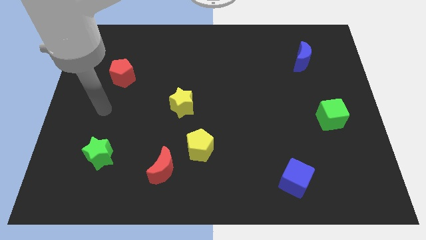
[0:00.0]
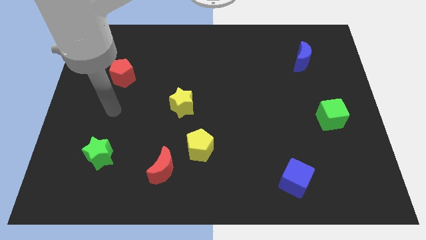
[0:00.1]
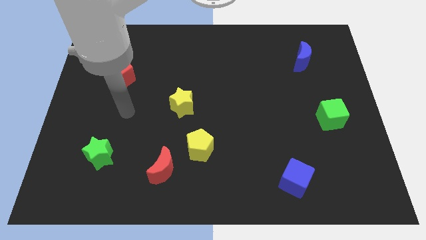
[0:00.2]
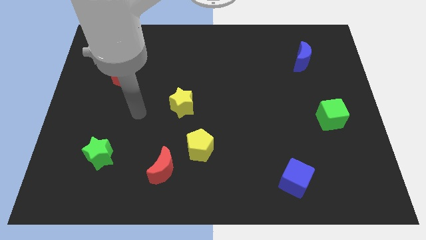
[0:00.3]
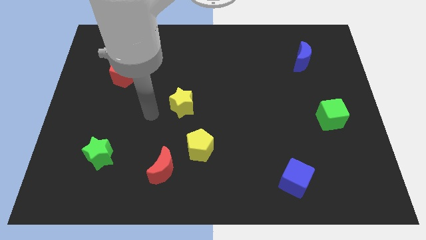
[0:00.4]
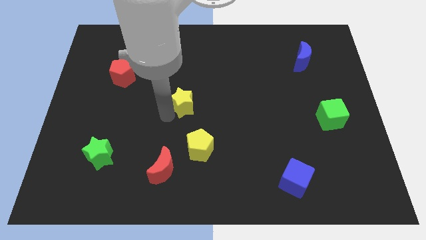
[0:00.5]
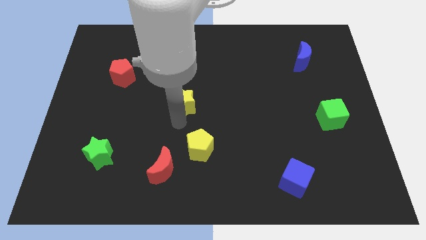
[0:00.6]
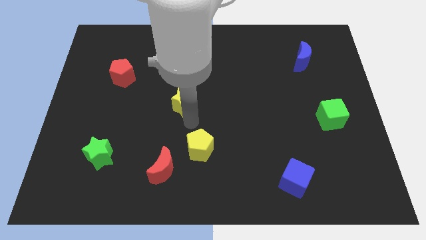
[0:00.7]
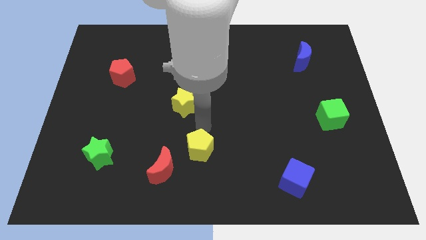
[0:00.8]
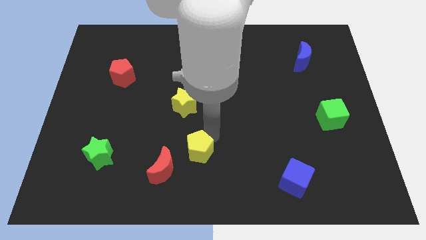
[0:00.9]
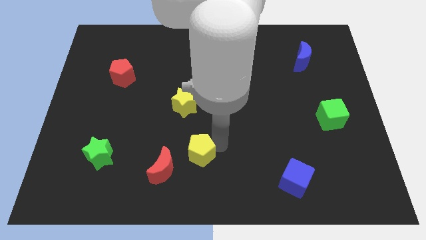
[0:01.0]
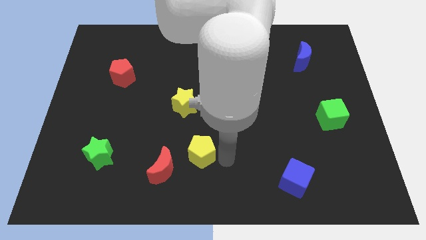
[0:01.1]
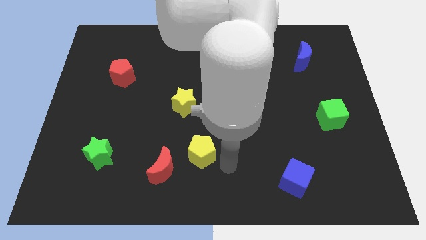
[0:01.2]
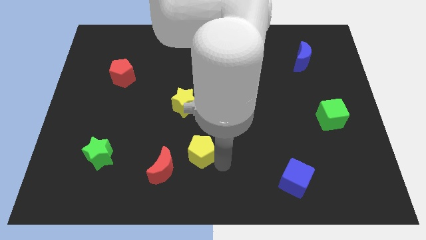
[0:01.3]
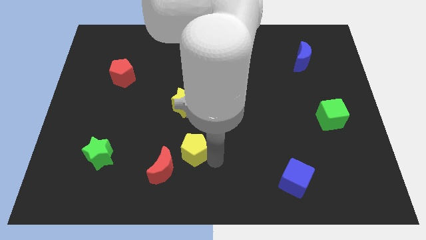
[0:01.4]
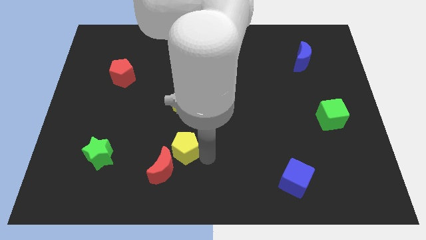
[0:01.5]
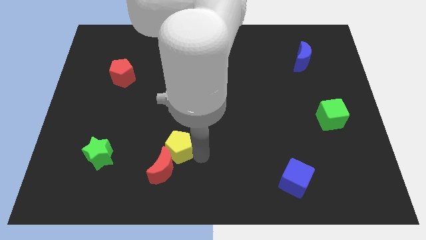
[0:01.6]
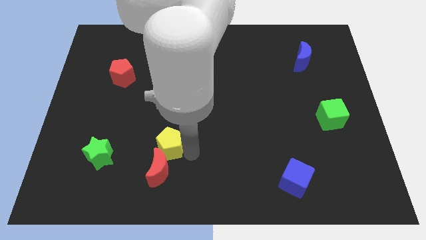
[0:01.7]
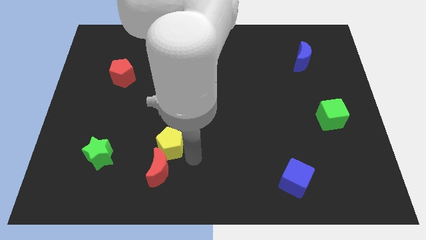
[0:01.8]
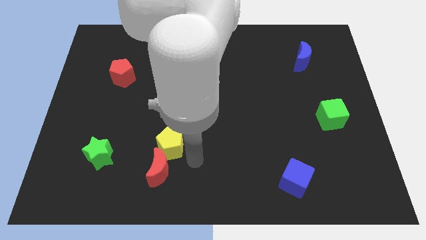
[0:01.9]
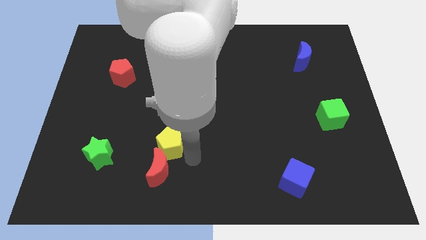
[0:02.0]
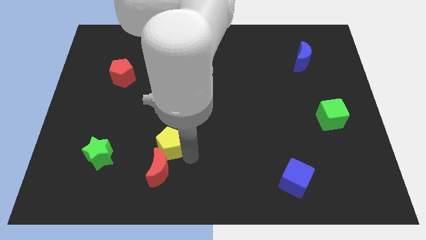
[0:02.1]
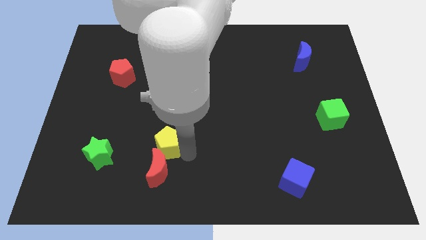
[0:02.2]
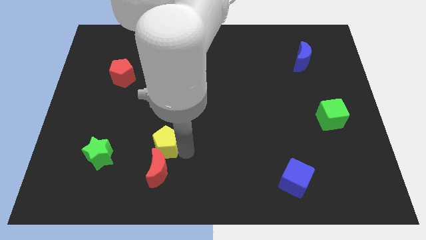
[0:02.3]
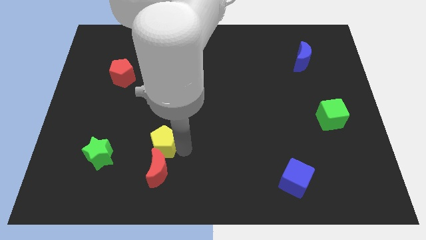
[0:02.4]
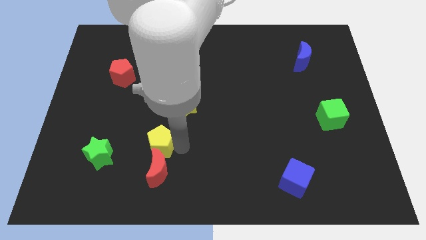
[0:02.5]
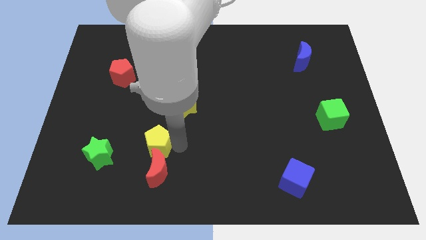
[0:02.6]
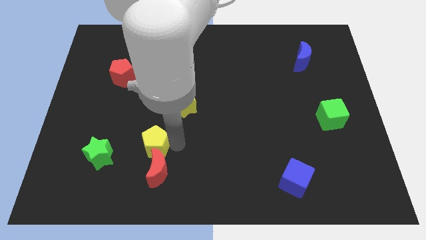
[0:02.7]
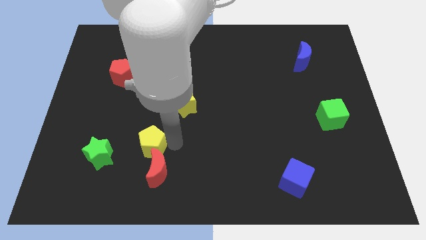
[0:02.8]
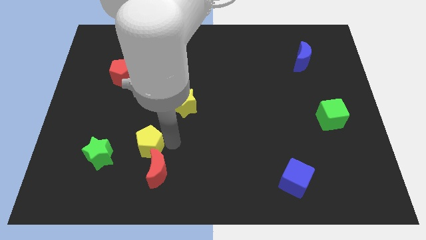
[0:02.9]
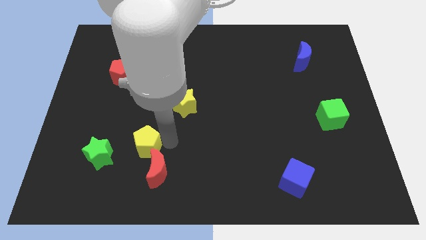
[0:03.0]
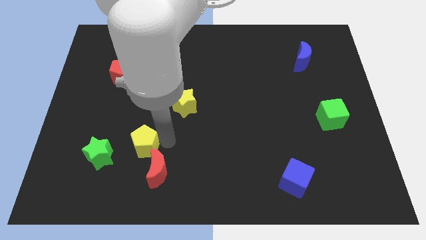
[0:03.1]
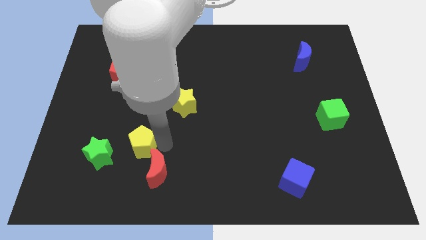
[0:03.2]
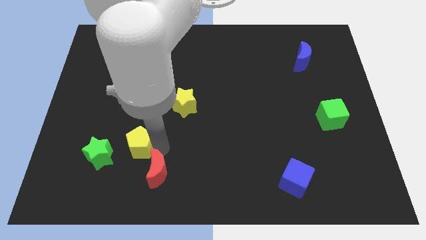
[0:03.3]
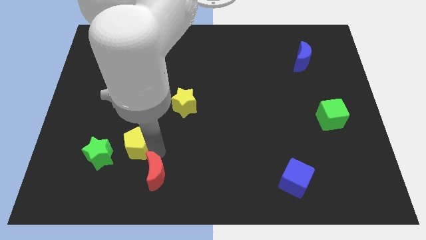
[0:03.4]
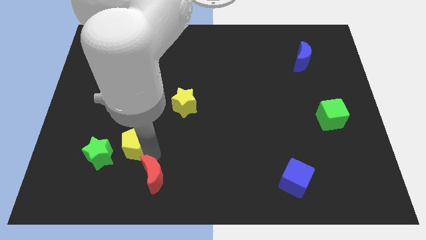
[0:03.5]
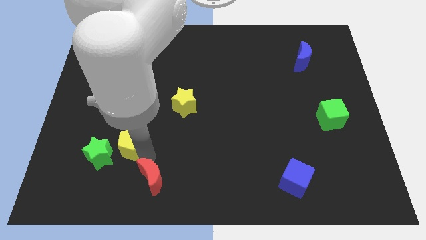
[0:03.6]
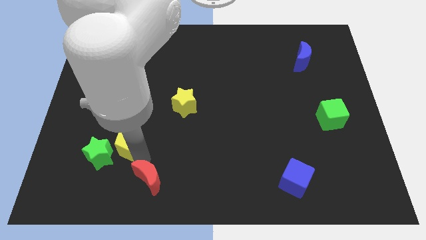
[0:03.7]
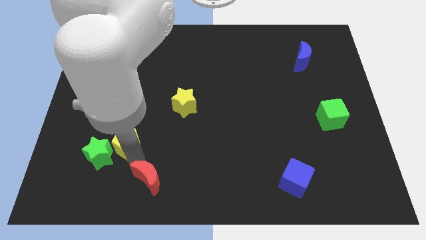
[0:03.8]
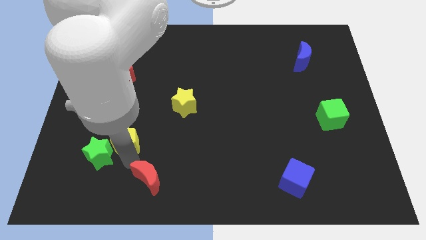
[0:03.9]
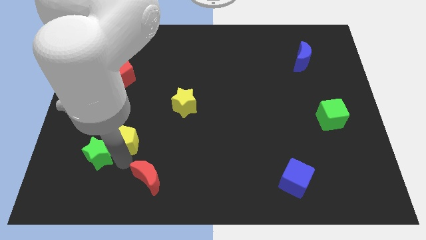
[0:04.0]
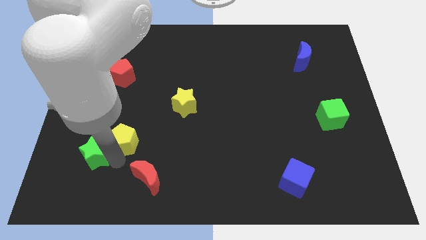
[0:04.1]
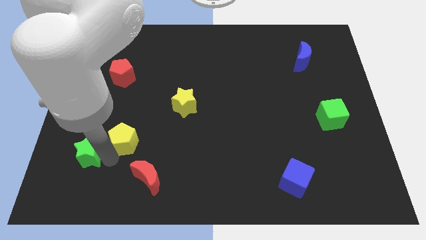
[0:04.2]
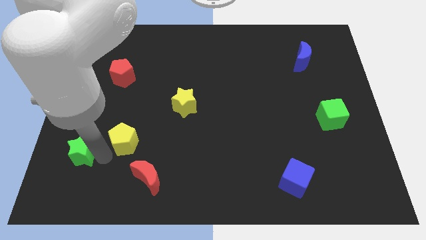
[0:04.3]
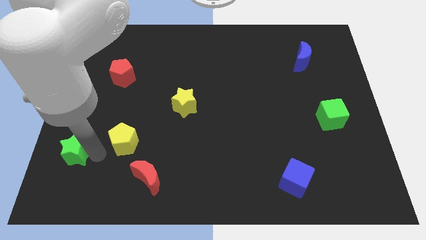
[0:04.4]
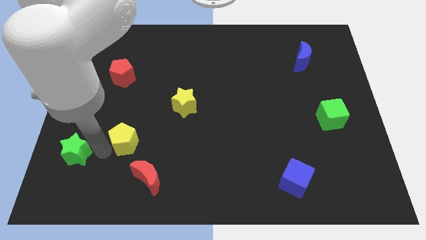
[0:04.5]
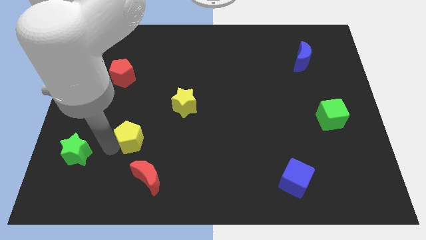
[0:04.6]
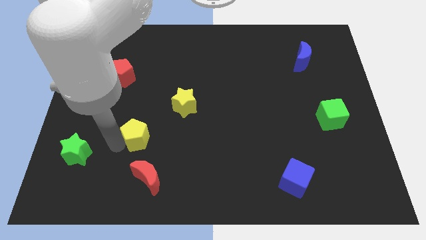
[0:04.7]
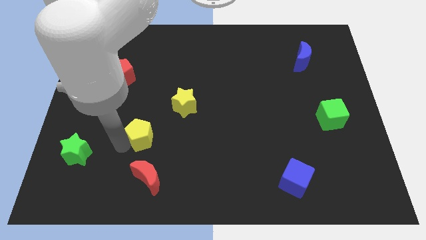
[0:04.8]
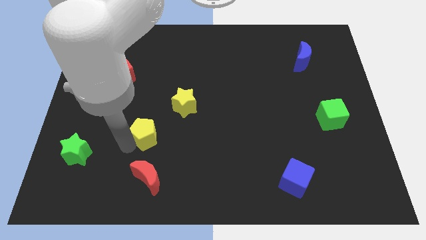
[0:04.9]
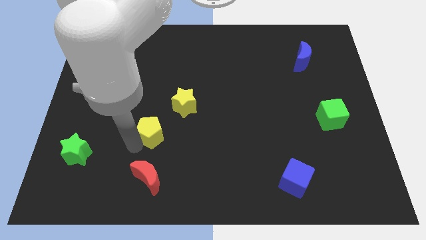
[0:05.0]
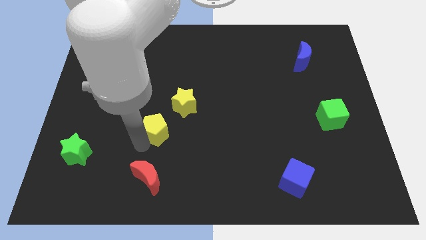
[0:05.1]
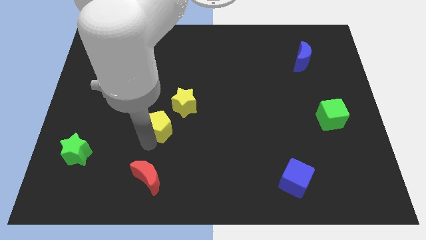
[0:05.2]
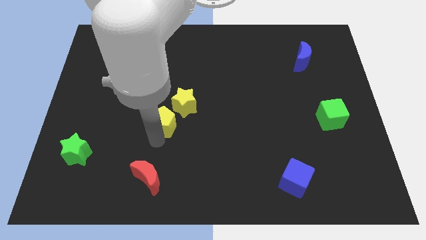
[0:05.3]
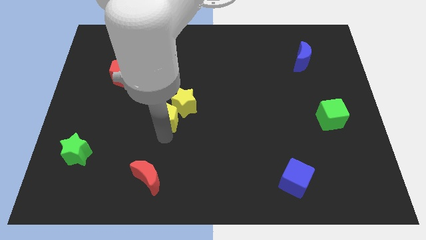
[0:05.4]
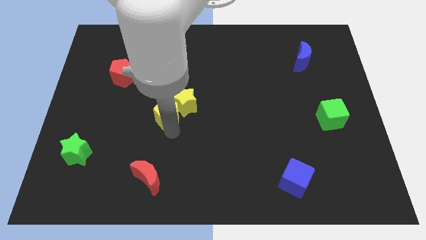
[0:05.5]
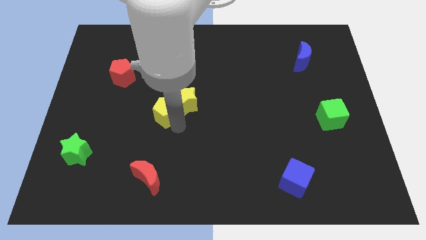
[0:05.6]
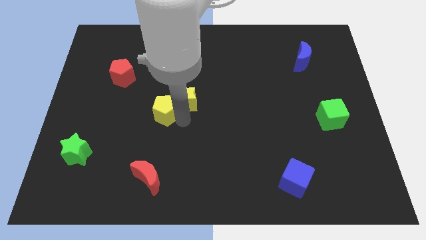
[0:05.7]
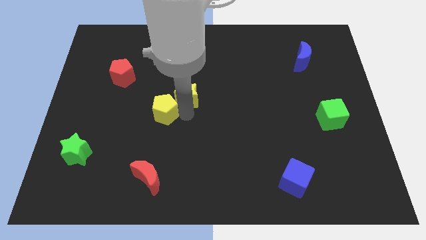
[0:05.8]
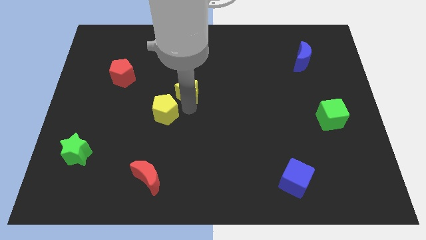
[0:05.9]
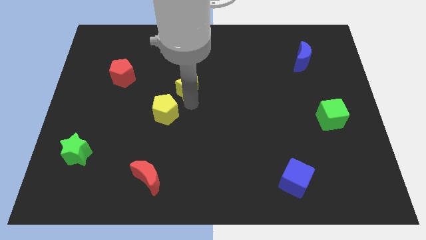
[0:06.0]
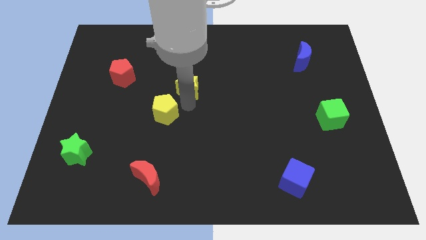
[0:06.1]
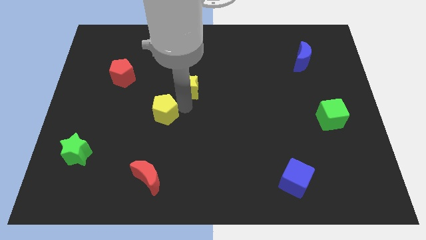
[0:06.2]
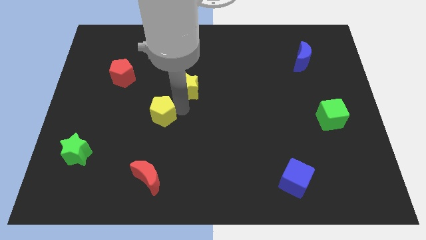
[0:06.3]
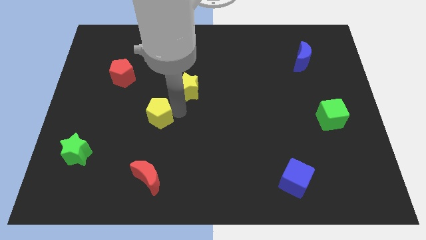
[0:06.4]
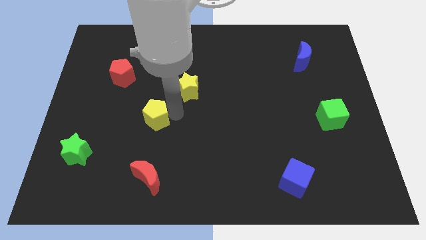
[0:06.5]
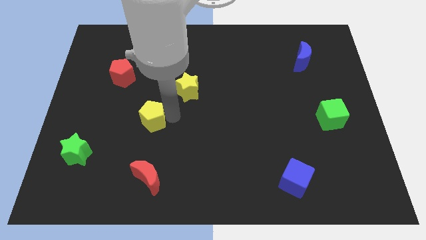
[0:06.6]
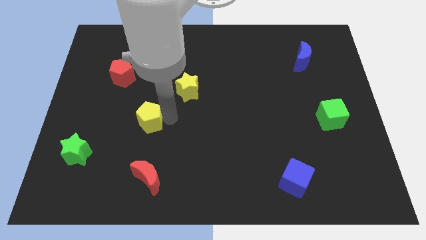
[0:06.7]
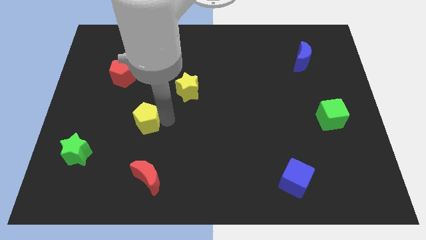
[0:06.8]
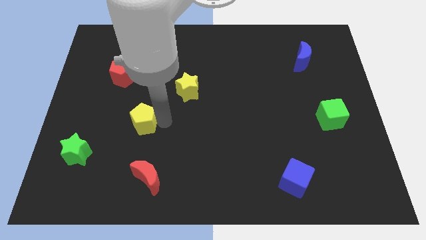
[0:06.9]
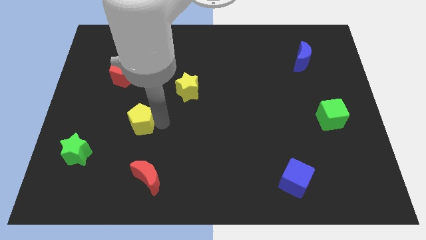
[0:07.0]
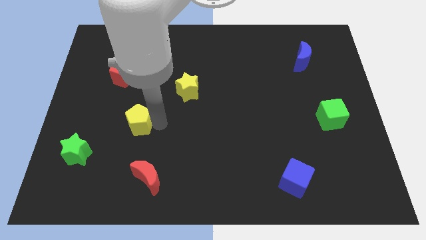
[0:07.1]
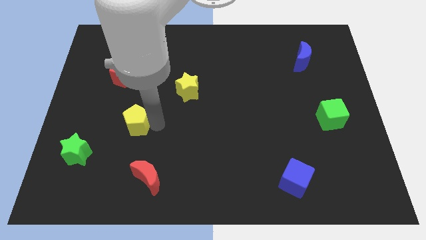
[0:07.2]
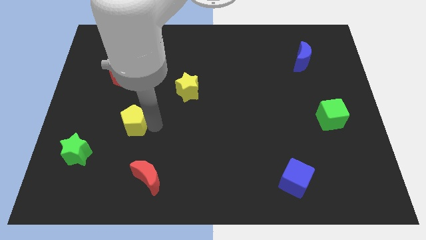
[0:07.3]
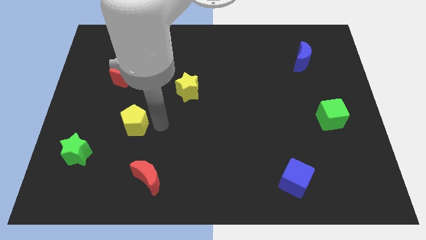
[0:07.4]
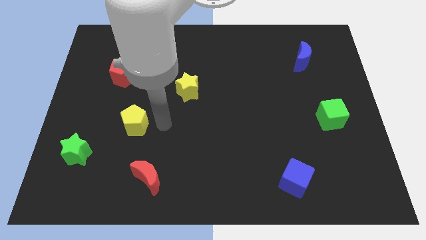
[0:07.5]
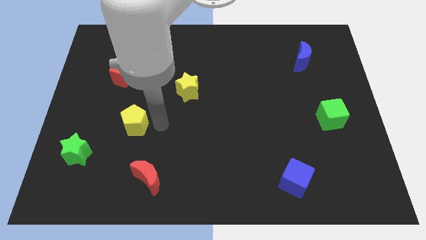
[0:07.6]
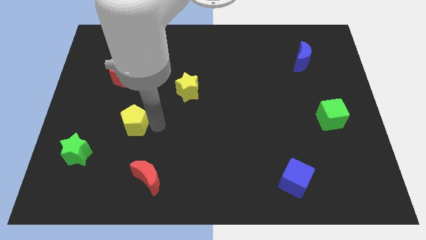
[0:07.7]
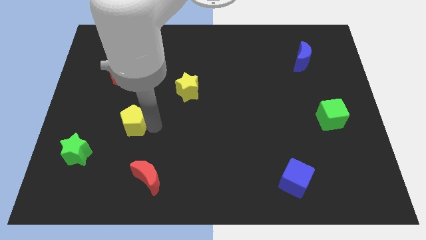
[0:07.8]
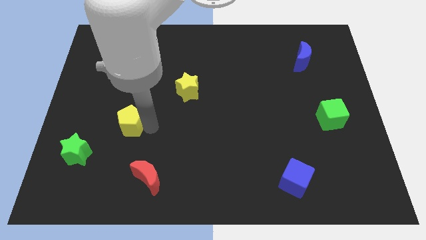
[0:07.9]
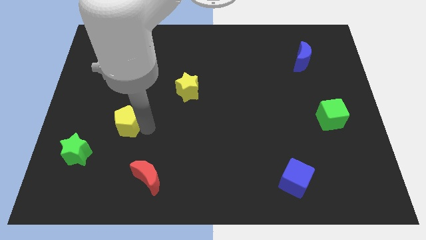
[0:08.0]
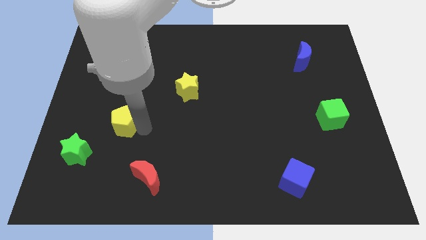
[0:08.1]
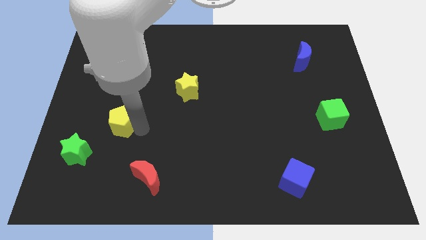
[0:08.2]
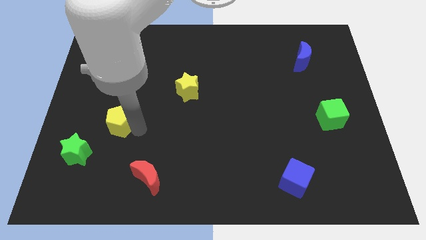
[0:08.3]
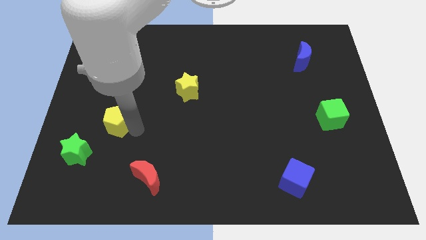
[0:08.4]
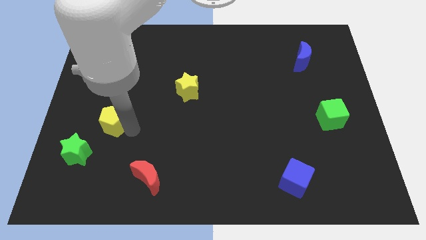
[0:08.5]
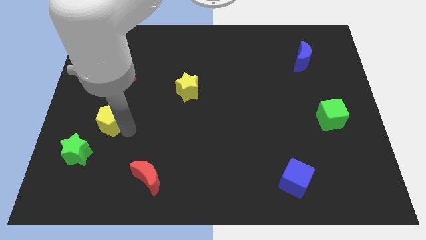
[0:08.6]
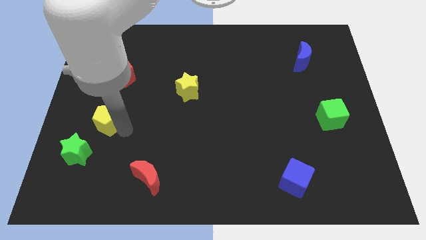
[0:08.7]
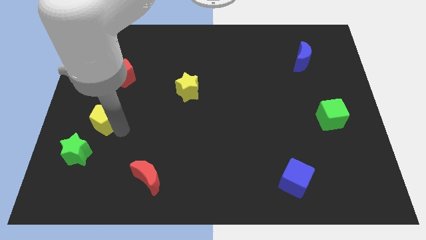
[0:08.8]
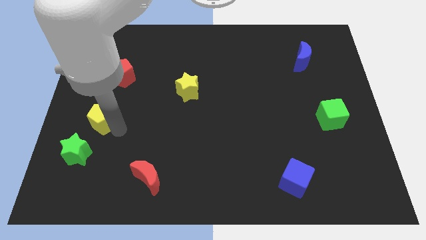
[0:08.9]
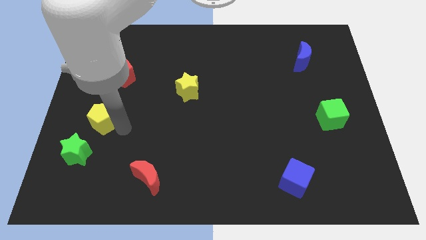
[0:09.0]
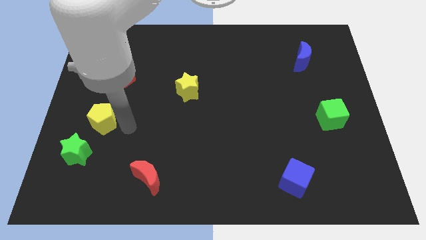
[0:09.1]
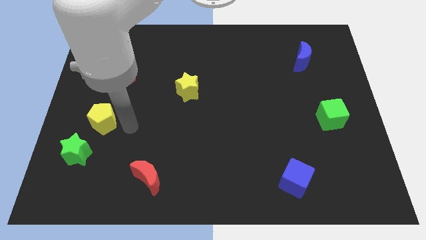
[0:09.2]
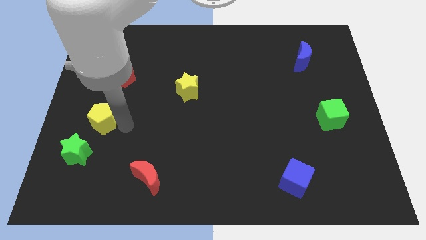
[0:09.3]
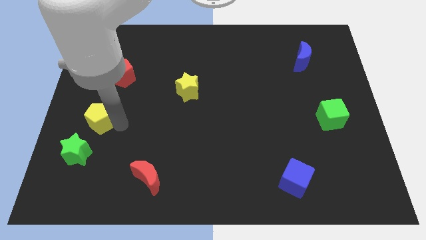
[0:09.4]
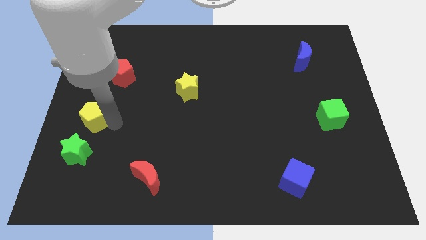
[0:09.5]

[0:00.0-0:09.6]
slide the yellow pentagon to the center left
